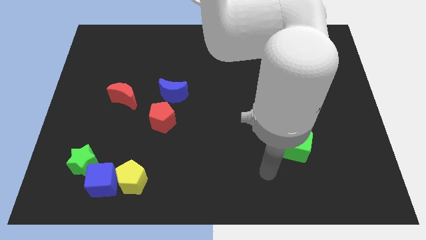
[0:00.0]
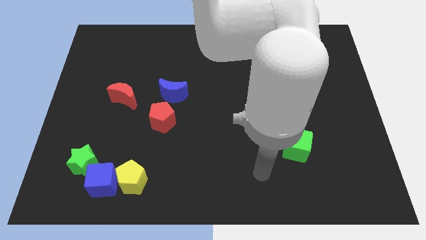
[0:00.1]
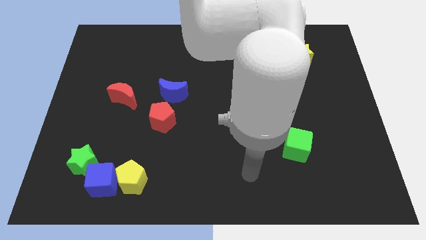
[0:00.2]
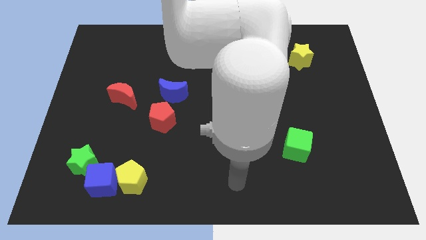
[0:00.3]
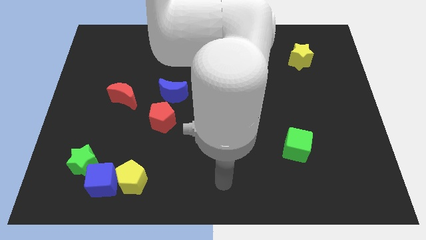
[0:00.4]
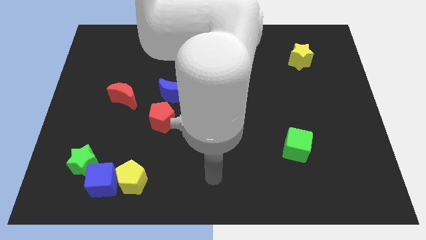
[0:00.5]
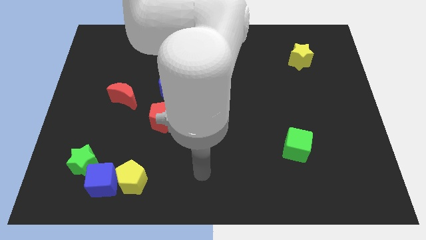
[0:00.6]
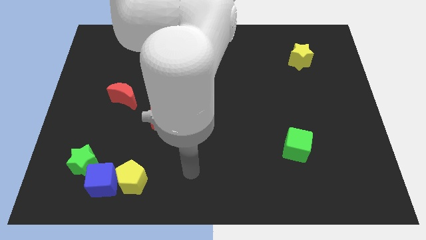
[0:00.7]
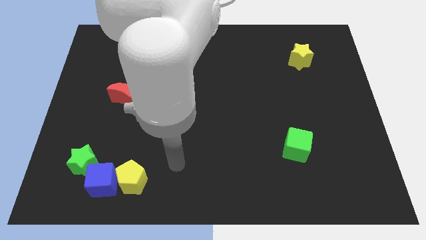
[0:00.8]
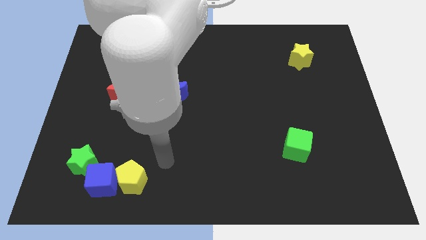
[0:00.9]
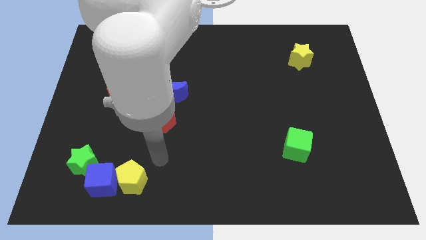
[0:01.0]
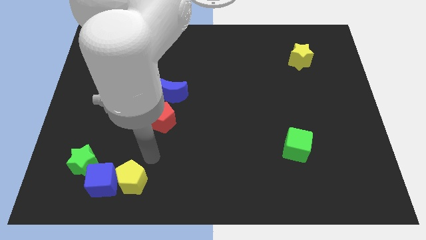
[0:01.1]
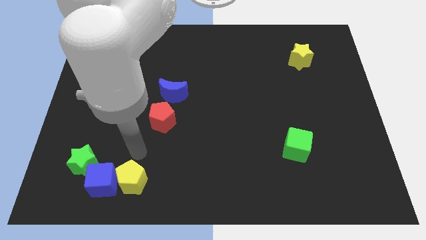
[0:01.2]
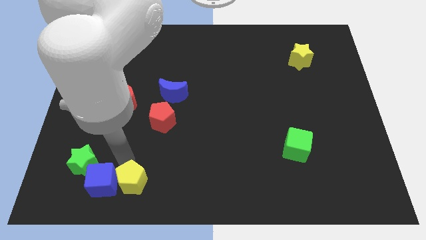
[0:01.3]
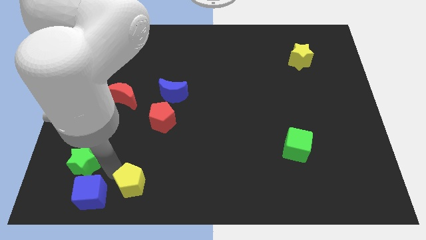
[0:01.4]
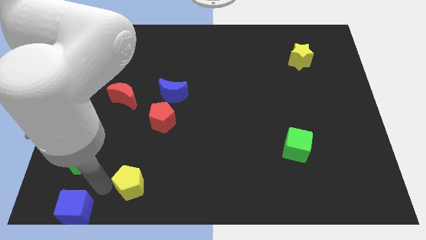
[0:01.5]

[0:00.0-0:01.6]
pull the yellow pentagon apart from the blue cube

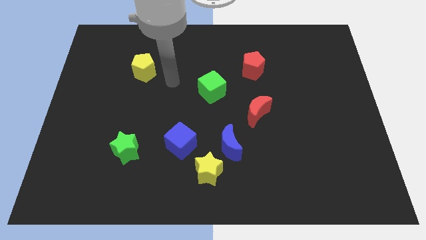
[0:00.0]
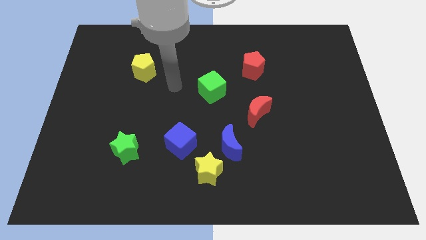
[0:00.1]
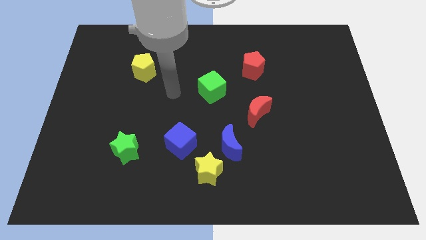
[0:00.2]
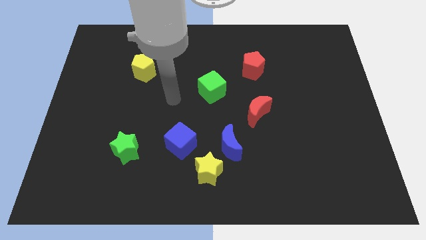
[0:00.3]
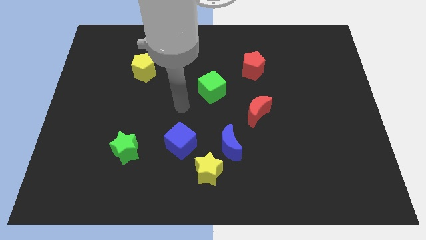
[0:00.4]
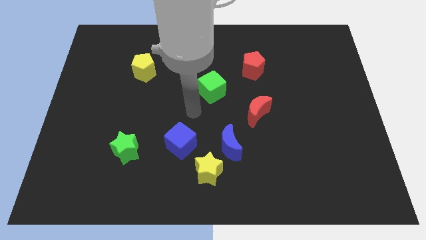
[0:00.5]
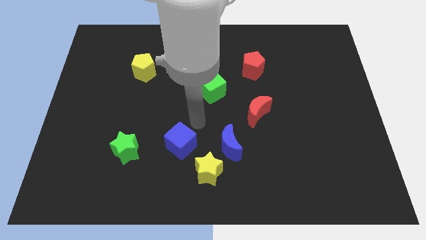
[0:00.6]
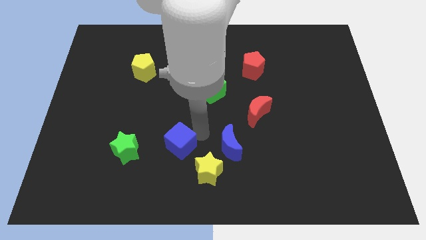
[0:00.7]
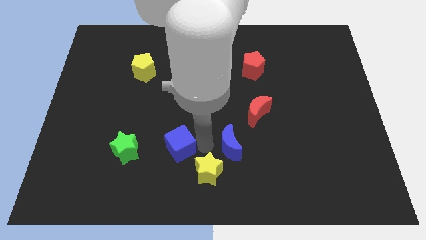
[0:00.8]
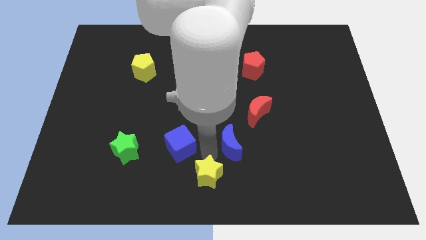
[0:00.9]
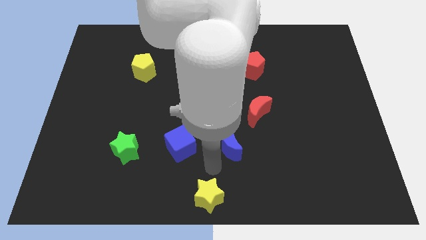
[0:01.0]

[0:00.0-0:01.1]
move the blue moon away from the yellow star

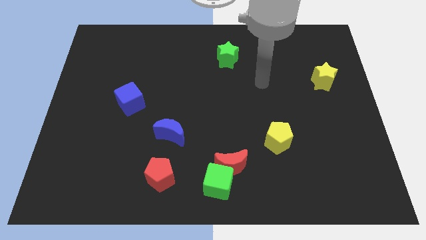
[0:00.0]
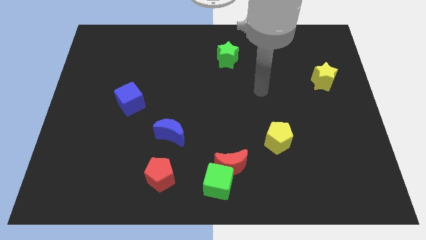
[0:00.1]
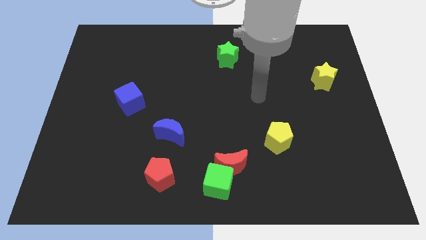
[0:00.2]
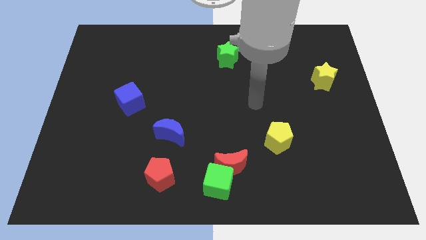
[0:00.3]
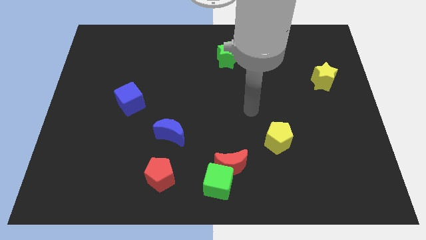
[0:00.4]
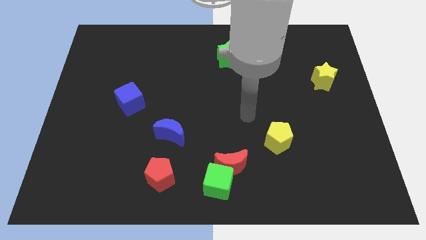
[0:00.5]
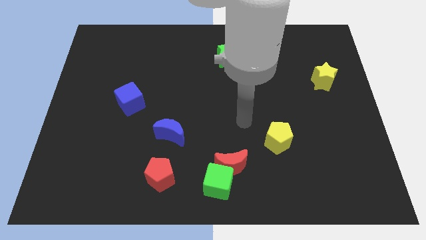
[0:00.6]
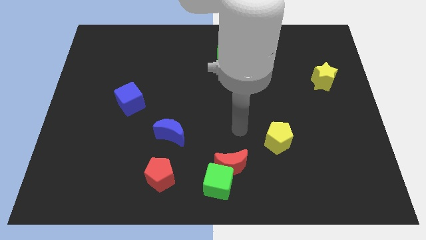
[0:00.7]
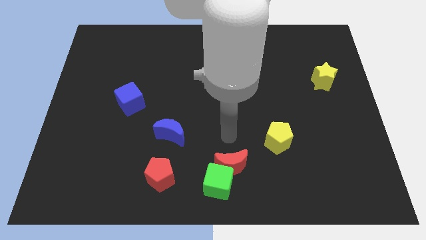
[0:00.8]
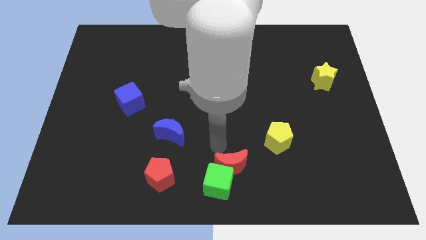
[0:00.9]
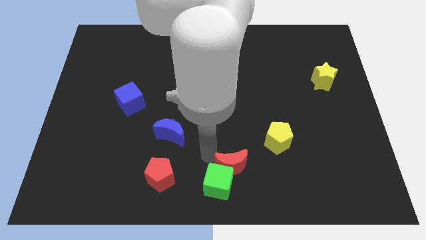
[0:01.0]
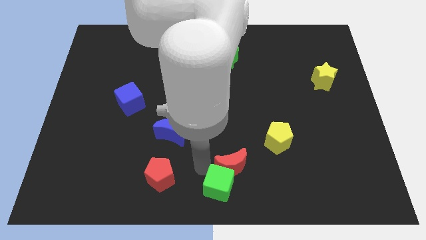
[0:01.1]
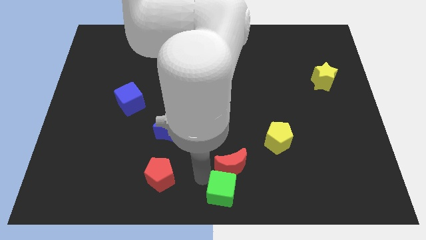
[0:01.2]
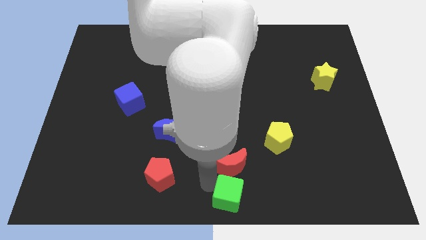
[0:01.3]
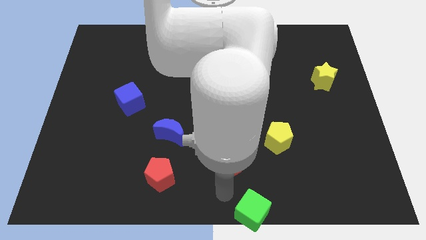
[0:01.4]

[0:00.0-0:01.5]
separate the red moon from the green cube

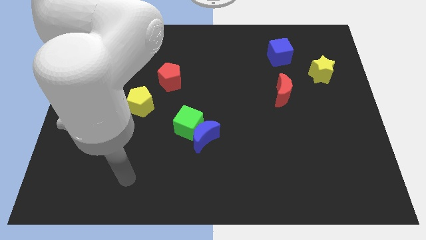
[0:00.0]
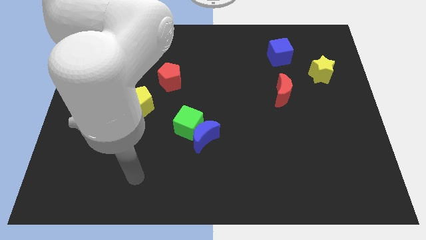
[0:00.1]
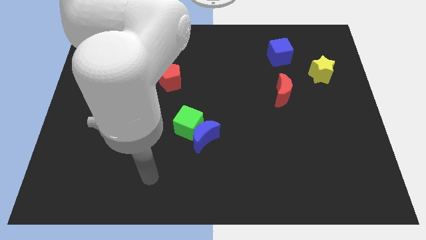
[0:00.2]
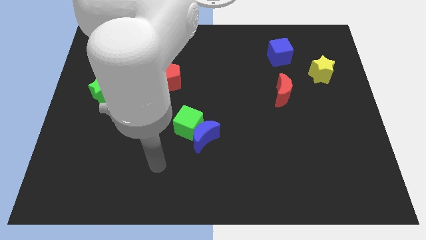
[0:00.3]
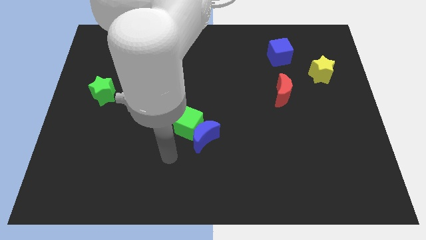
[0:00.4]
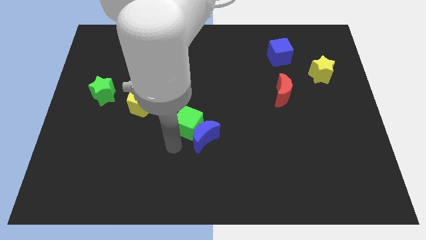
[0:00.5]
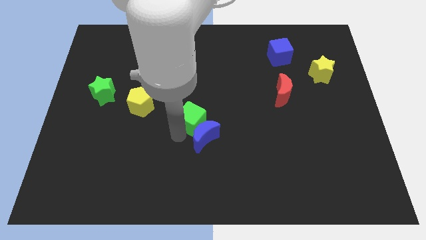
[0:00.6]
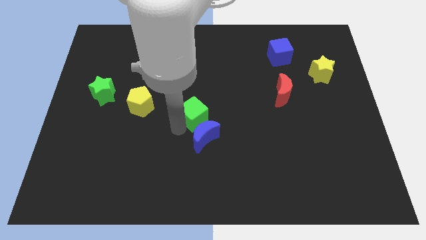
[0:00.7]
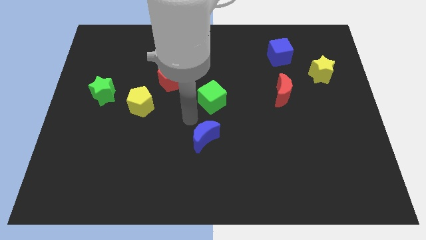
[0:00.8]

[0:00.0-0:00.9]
pull the blue moon apart from the green cube

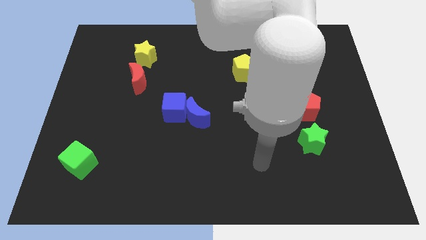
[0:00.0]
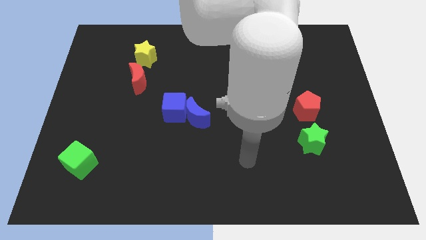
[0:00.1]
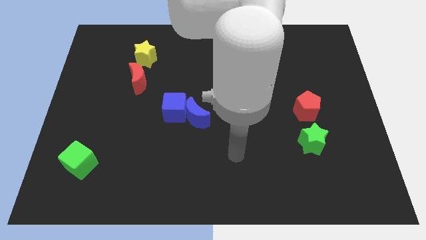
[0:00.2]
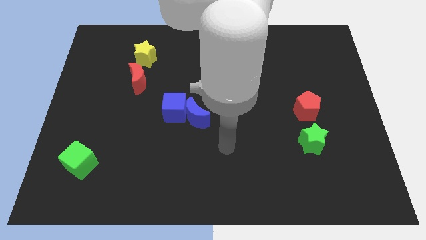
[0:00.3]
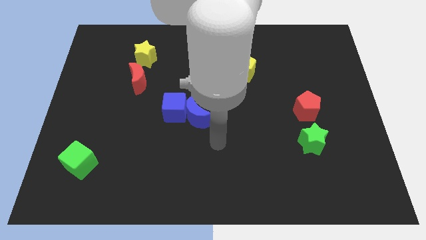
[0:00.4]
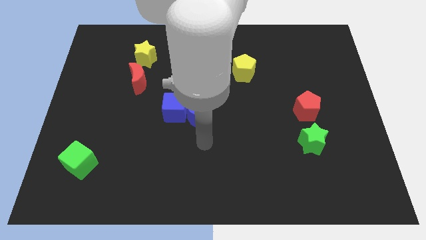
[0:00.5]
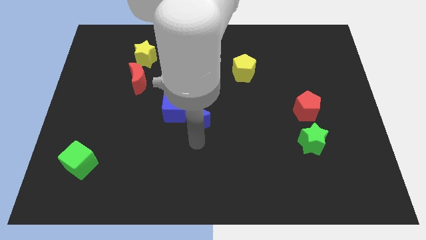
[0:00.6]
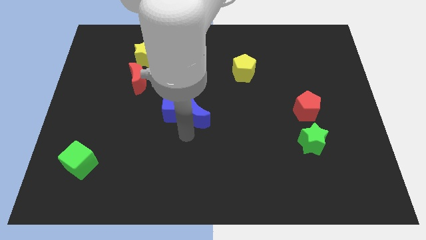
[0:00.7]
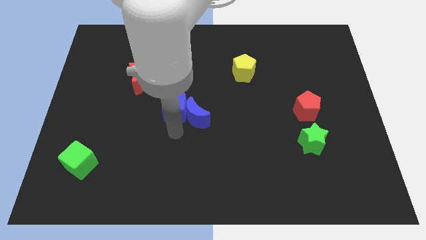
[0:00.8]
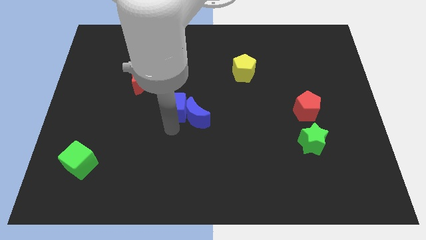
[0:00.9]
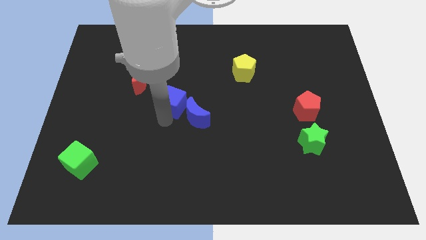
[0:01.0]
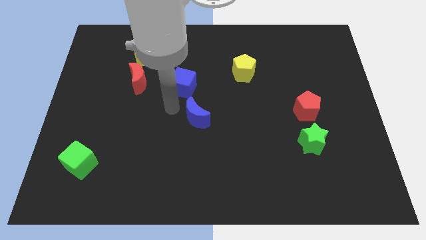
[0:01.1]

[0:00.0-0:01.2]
pull the blue moon apart from the blue cube

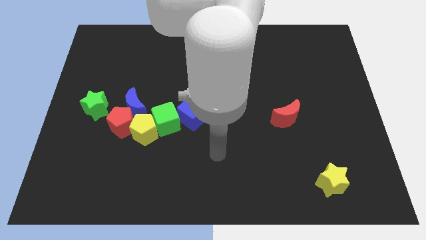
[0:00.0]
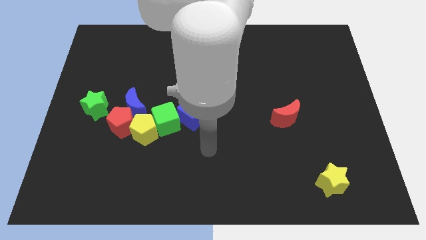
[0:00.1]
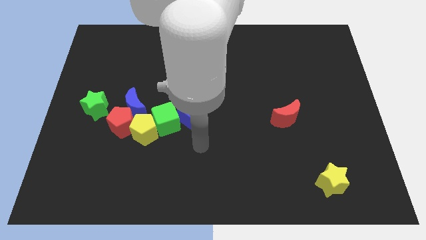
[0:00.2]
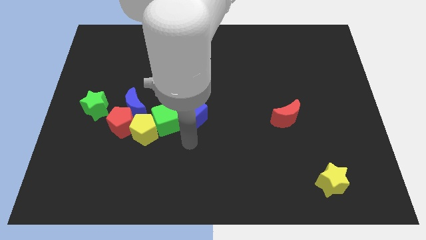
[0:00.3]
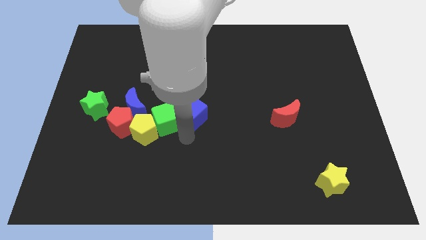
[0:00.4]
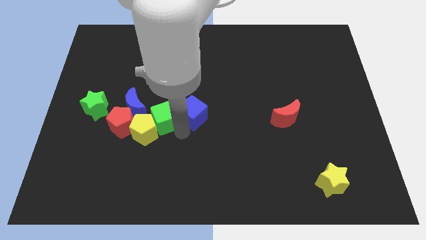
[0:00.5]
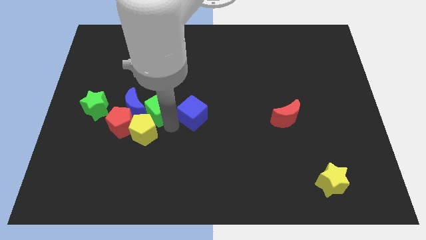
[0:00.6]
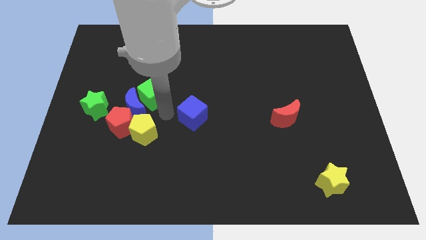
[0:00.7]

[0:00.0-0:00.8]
separate the blue cube from the green cube

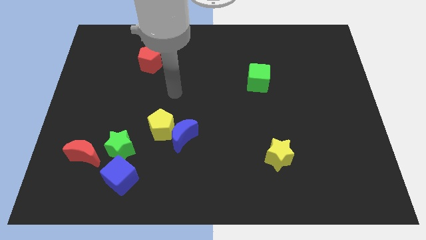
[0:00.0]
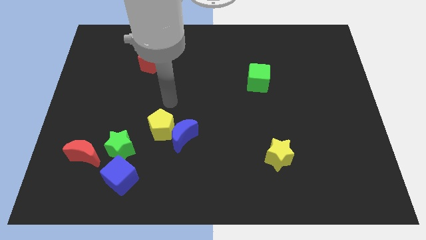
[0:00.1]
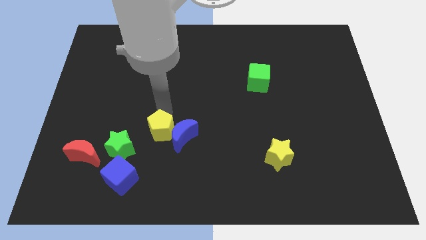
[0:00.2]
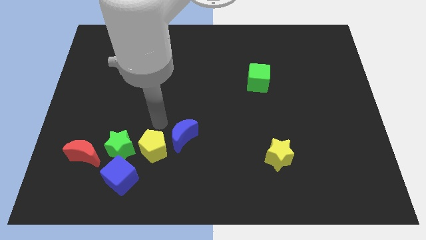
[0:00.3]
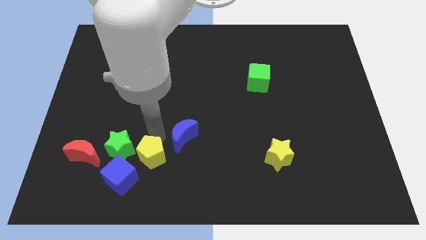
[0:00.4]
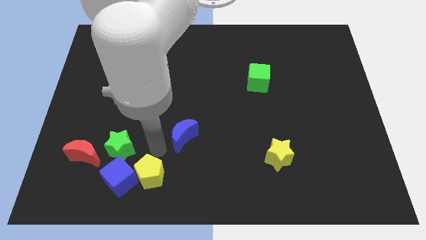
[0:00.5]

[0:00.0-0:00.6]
move the blue moon away from the yellow pentagon

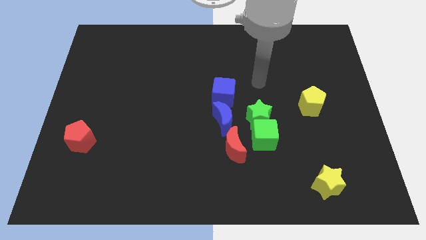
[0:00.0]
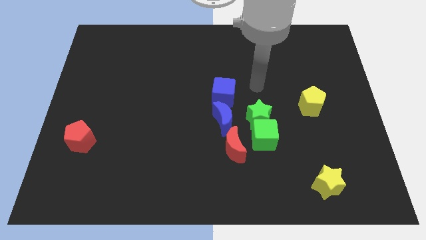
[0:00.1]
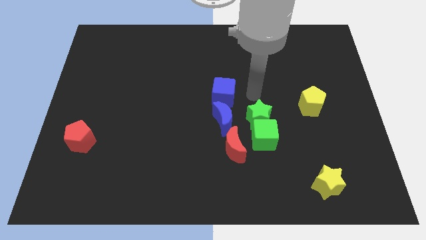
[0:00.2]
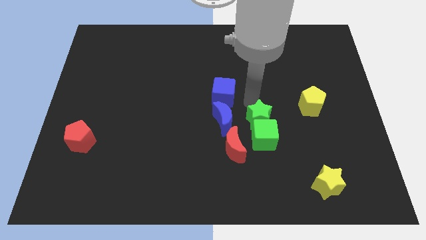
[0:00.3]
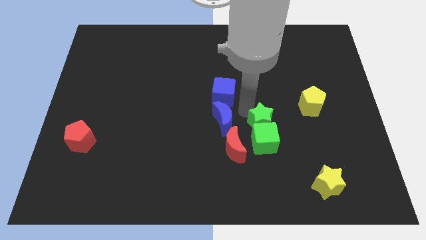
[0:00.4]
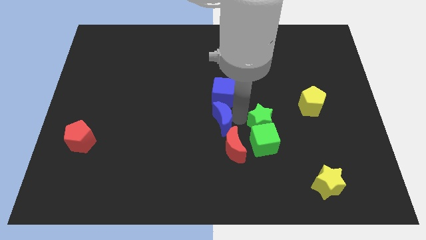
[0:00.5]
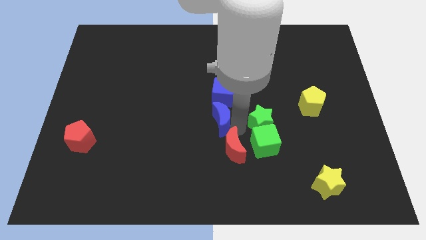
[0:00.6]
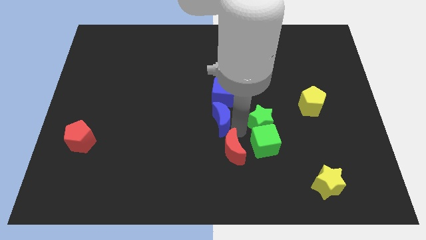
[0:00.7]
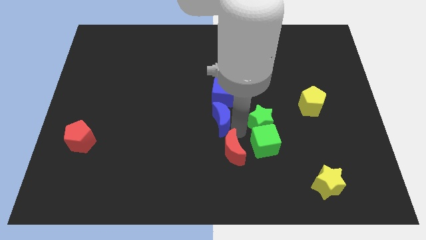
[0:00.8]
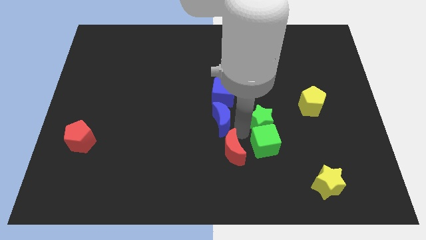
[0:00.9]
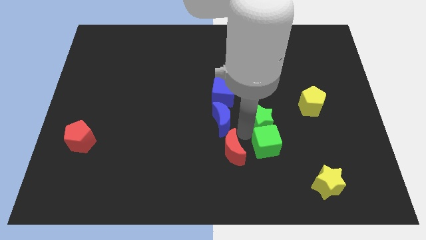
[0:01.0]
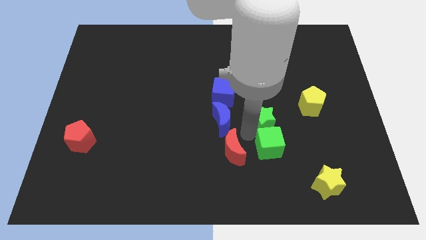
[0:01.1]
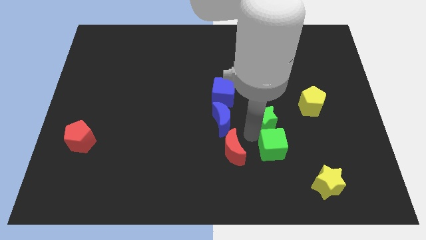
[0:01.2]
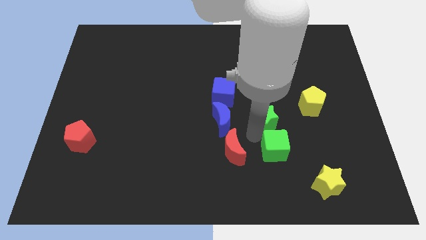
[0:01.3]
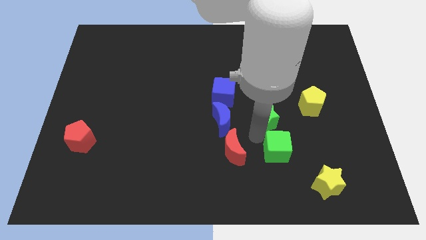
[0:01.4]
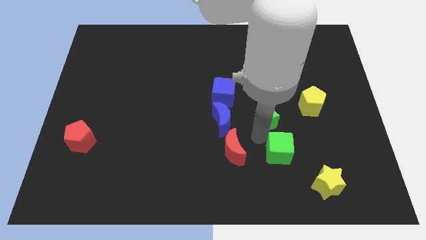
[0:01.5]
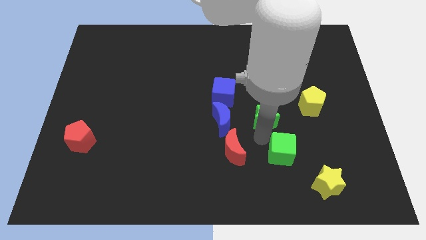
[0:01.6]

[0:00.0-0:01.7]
pull the green cube apart from the group
